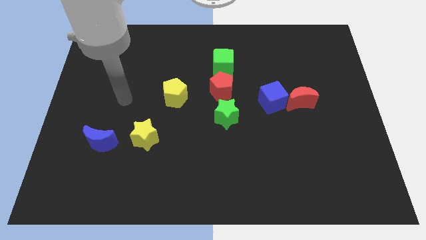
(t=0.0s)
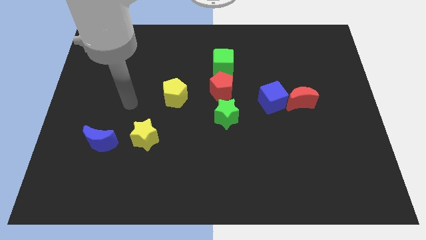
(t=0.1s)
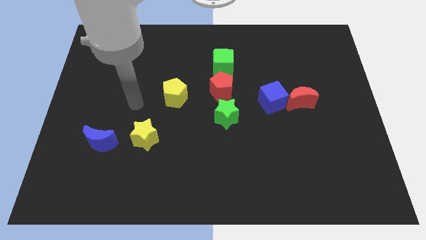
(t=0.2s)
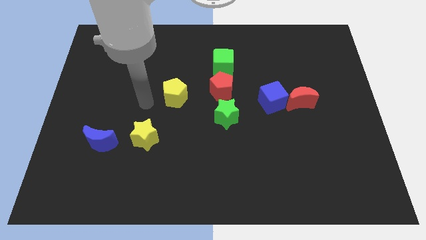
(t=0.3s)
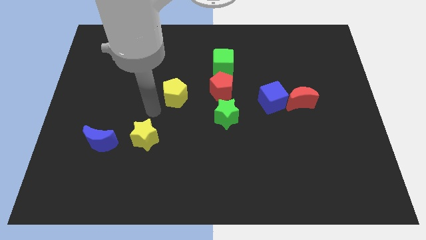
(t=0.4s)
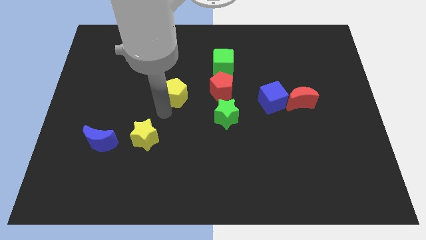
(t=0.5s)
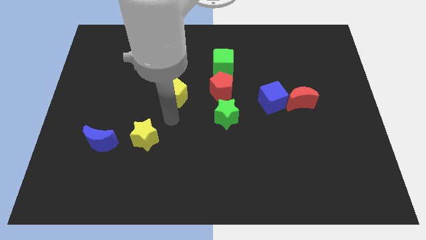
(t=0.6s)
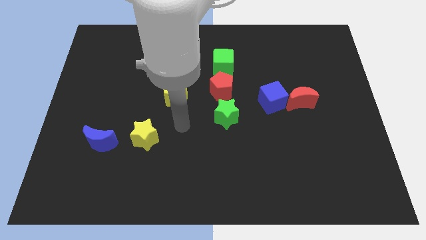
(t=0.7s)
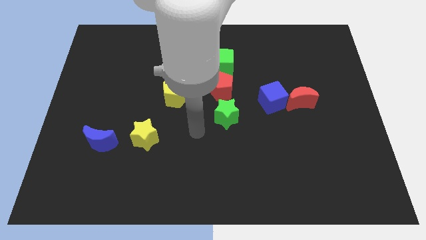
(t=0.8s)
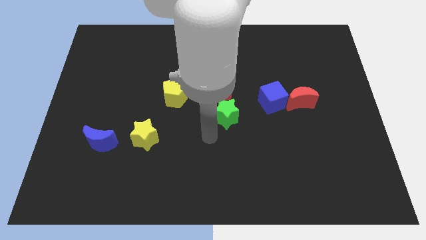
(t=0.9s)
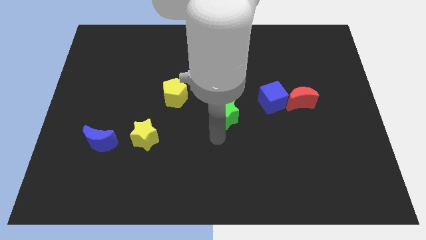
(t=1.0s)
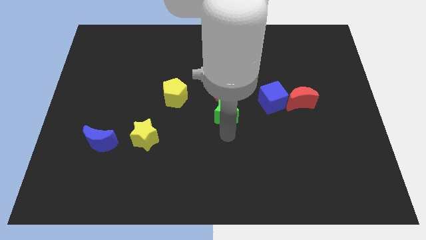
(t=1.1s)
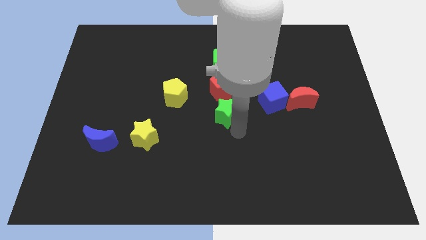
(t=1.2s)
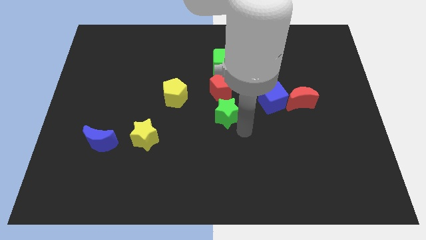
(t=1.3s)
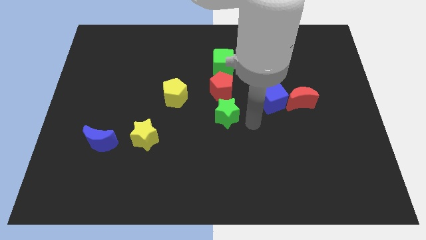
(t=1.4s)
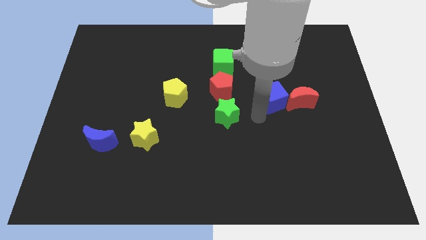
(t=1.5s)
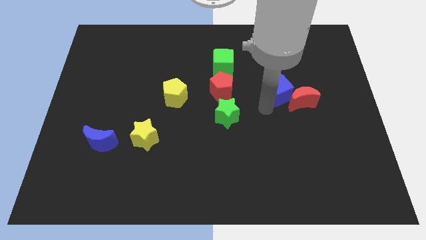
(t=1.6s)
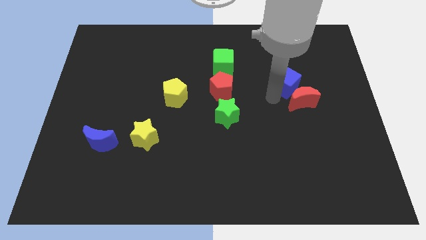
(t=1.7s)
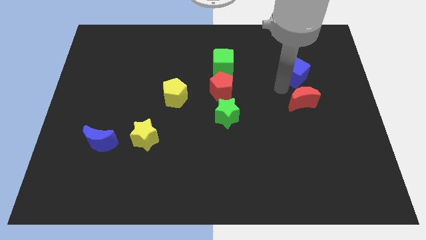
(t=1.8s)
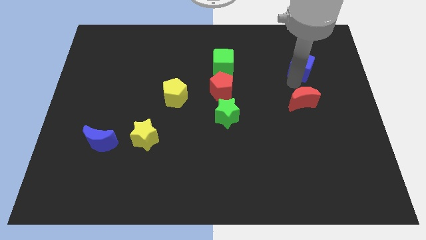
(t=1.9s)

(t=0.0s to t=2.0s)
pull the red moon apart from the blue cube

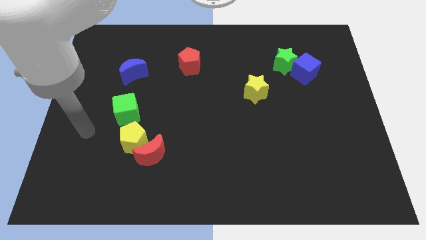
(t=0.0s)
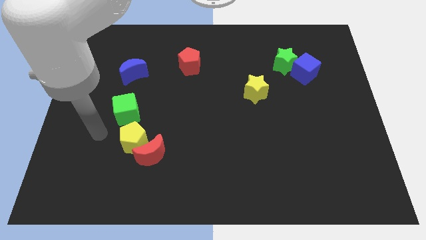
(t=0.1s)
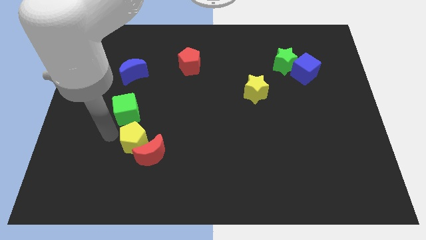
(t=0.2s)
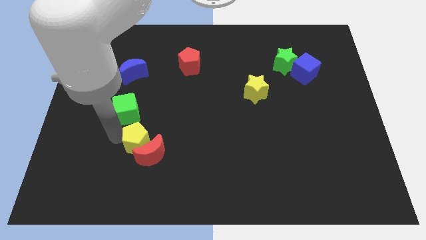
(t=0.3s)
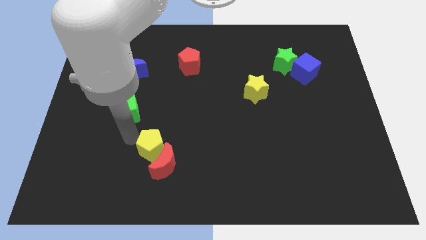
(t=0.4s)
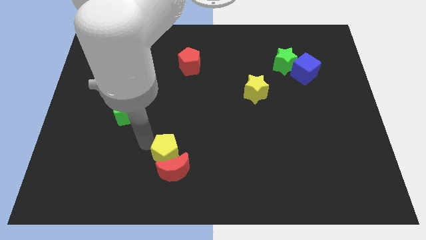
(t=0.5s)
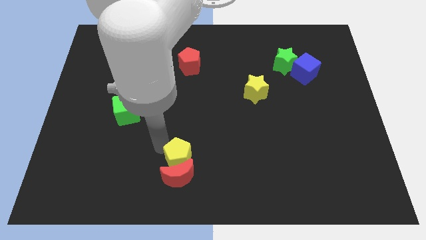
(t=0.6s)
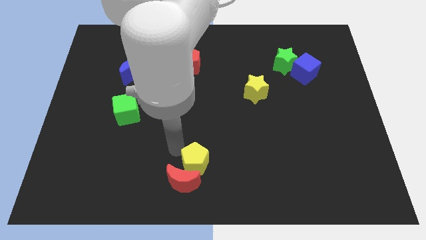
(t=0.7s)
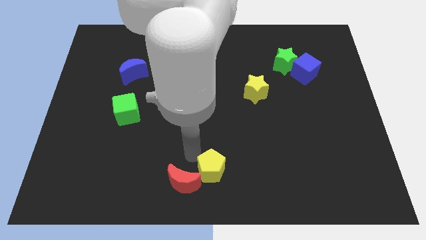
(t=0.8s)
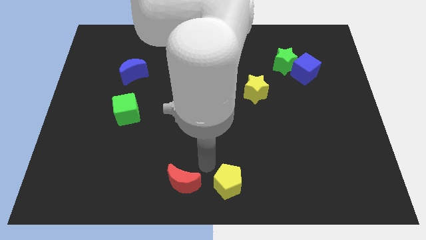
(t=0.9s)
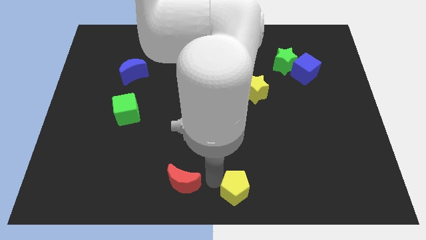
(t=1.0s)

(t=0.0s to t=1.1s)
pull the red moon apart from the yellow pentagon

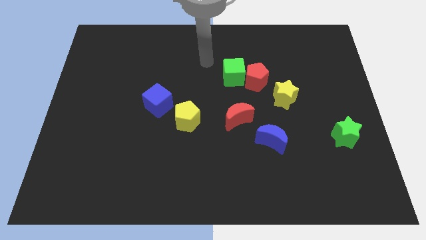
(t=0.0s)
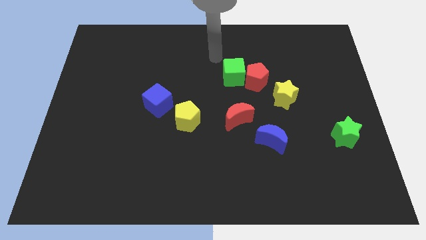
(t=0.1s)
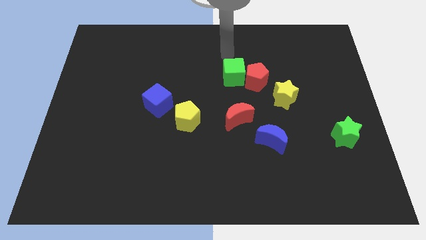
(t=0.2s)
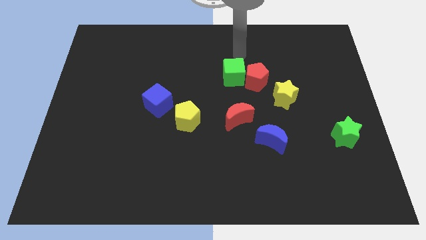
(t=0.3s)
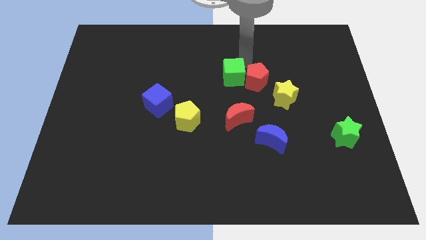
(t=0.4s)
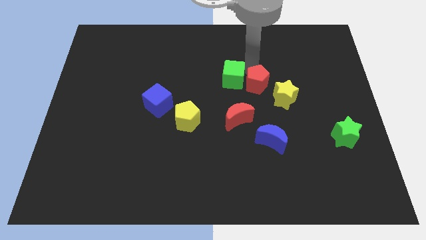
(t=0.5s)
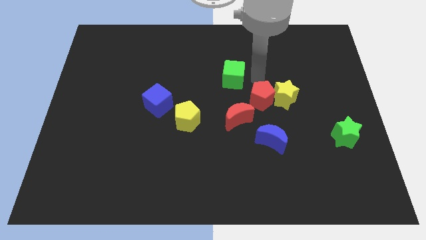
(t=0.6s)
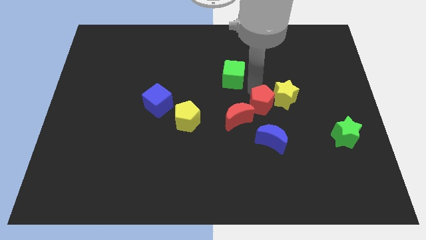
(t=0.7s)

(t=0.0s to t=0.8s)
separate the green cube from the red pentagon

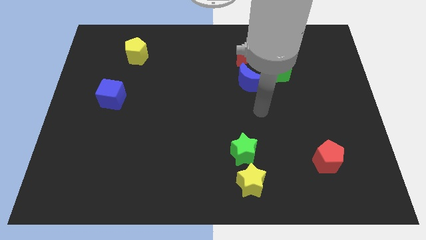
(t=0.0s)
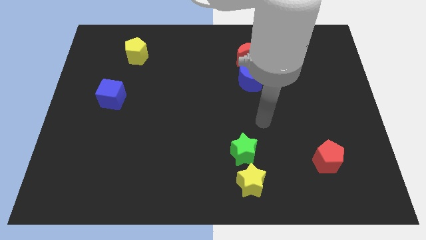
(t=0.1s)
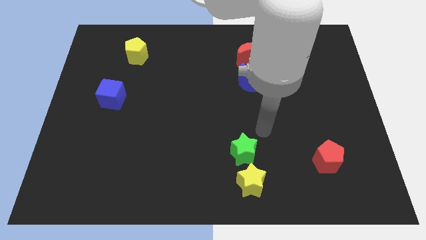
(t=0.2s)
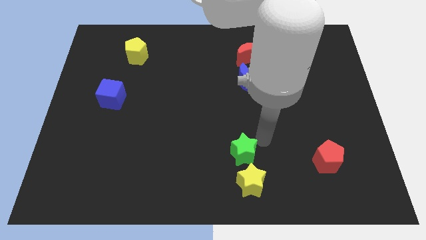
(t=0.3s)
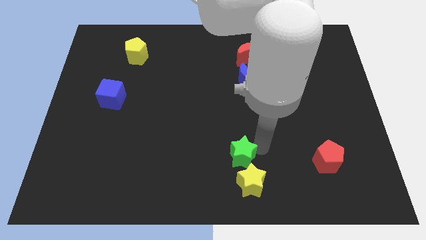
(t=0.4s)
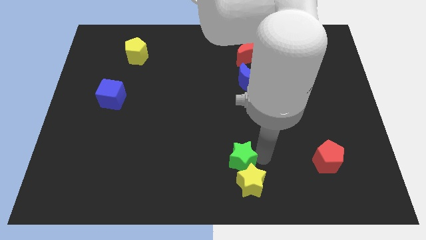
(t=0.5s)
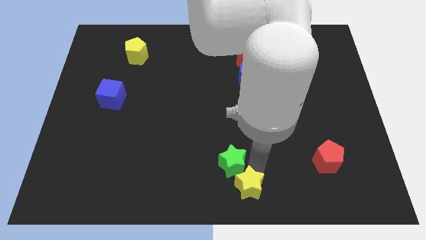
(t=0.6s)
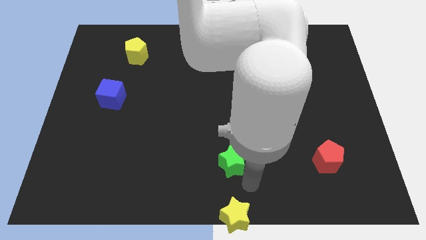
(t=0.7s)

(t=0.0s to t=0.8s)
separate the green star from the yellow star

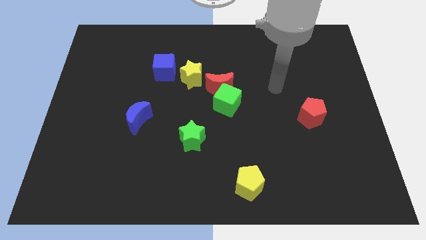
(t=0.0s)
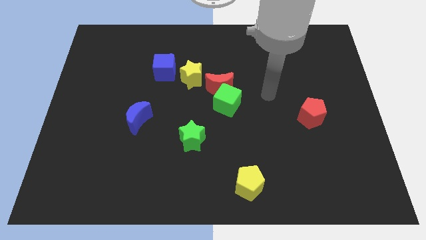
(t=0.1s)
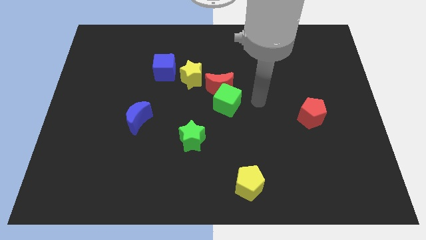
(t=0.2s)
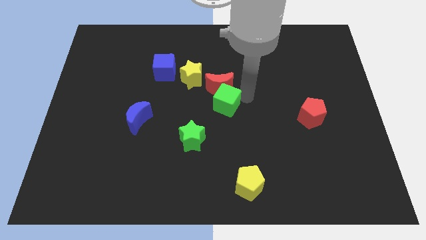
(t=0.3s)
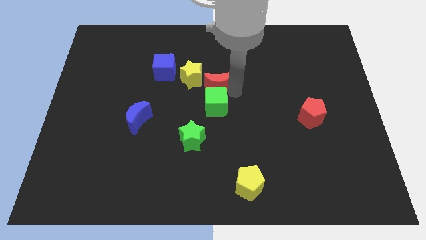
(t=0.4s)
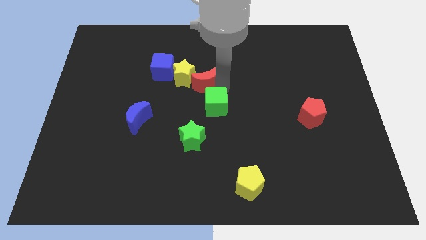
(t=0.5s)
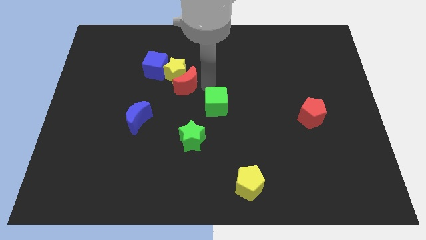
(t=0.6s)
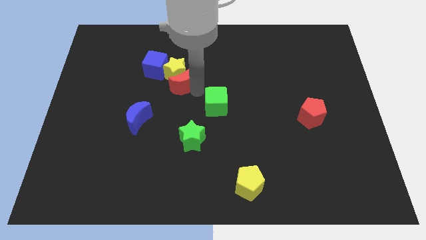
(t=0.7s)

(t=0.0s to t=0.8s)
move the green cube away from the red moon

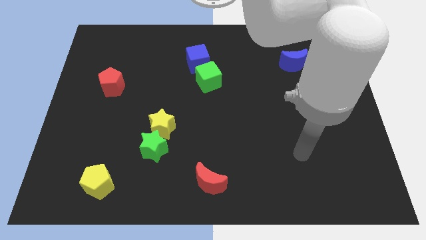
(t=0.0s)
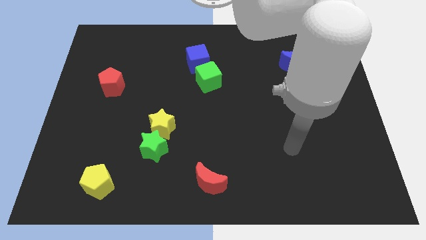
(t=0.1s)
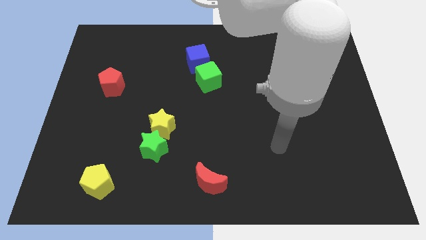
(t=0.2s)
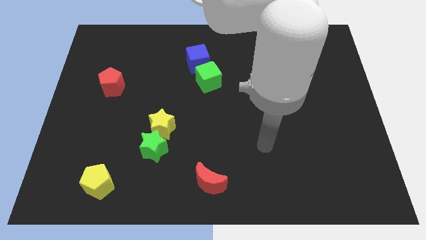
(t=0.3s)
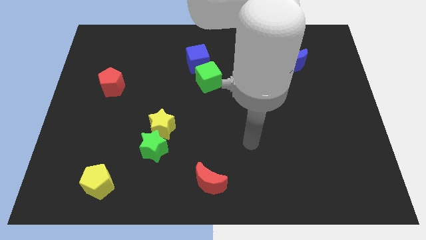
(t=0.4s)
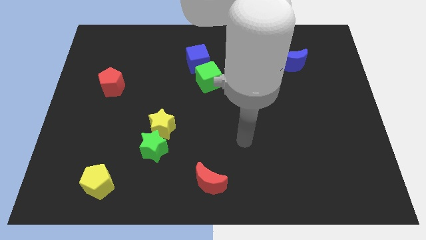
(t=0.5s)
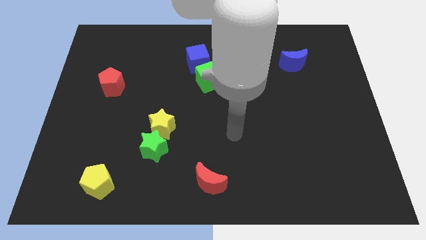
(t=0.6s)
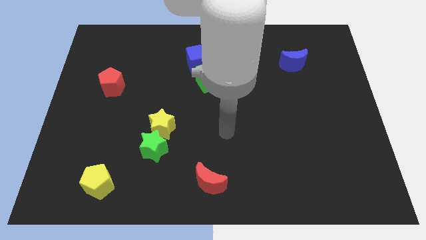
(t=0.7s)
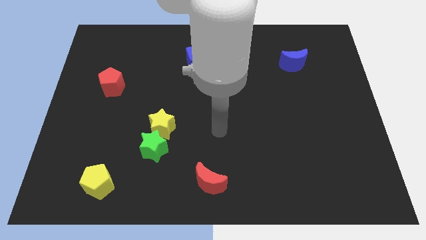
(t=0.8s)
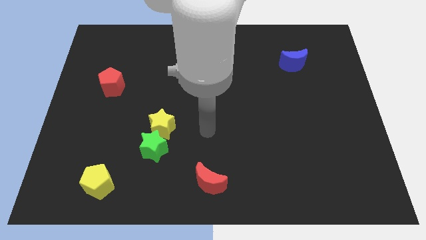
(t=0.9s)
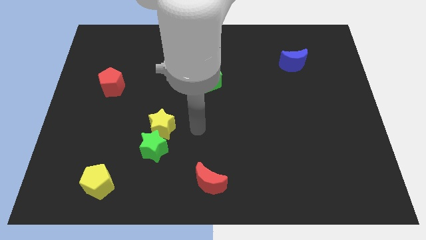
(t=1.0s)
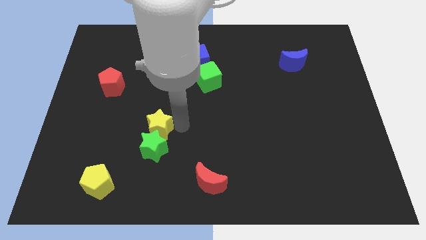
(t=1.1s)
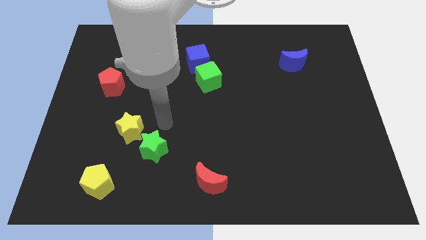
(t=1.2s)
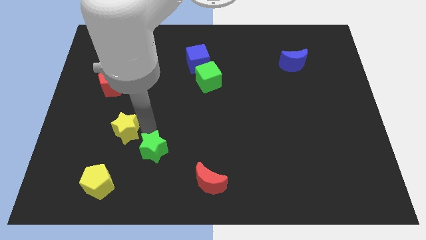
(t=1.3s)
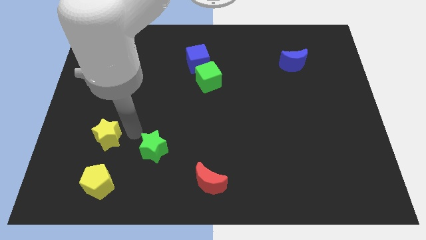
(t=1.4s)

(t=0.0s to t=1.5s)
move the green star away from the yellow star

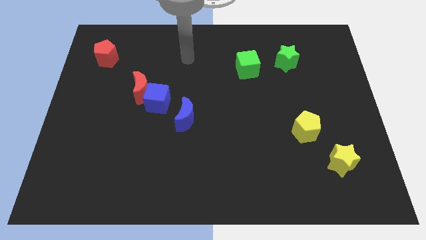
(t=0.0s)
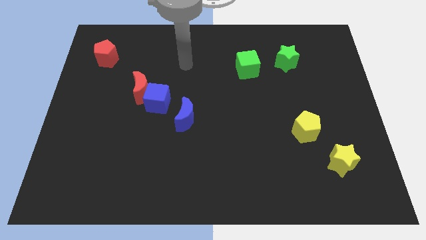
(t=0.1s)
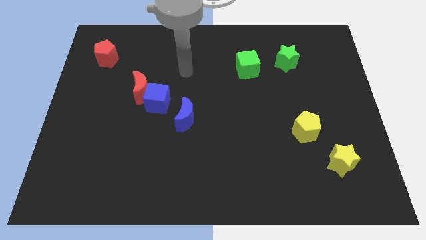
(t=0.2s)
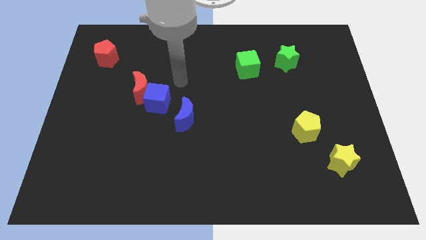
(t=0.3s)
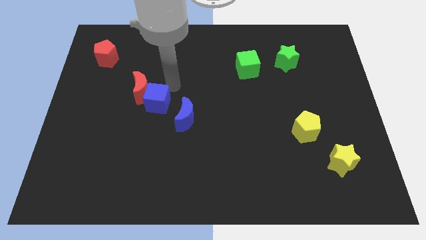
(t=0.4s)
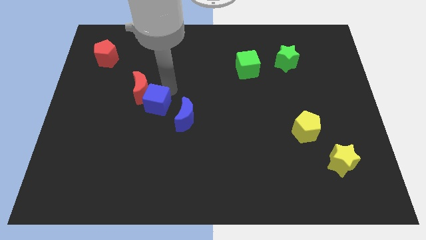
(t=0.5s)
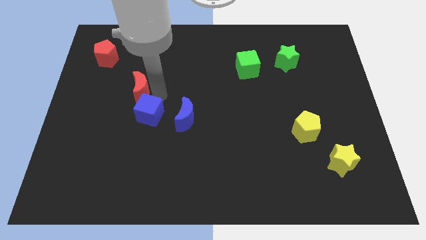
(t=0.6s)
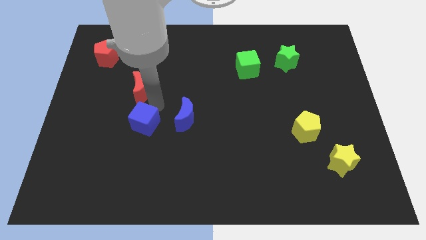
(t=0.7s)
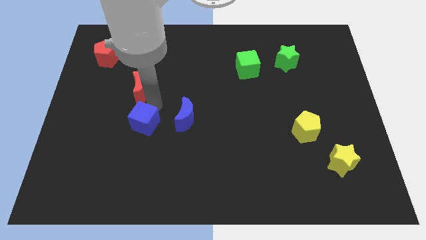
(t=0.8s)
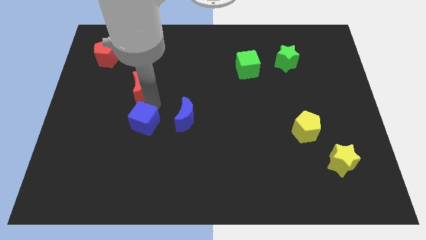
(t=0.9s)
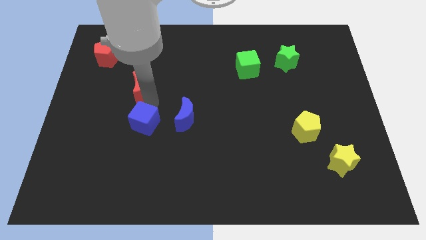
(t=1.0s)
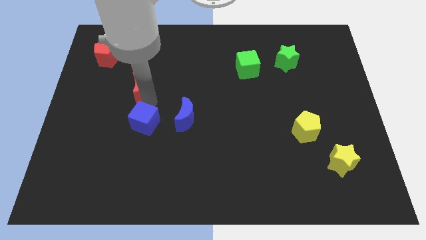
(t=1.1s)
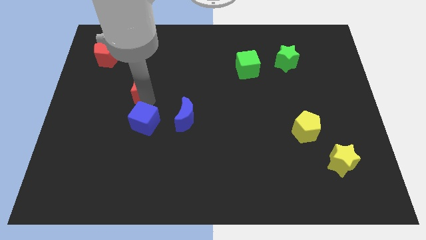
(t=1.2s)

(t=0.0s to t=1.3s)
separate the red moon from the blue cube

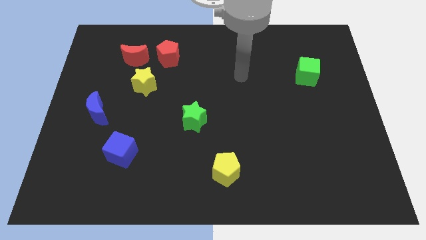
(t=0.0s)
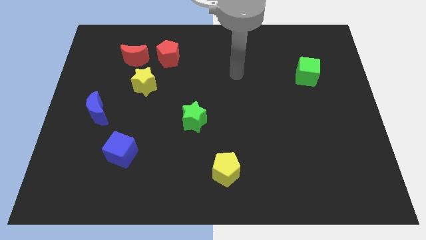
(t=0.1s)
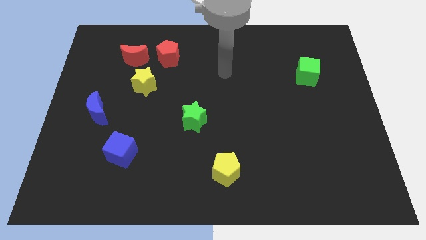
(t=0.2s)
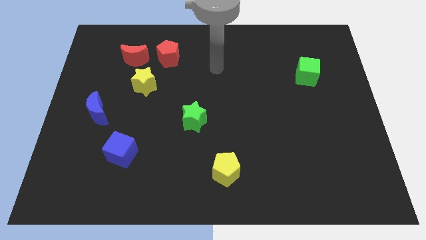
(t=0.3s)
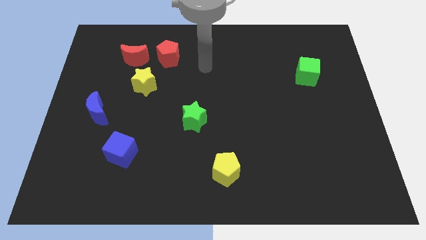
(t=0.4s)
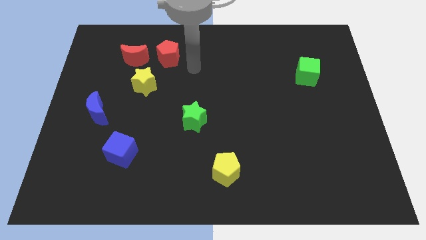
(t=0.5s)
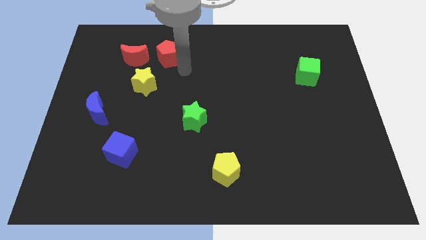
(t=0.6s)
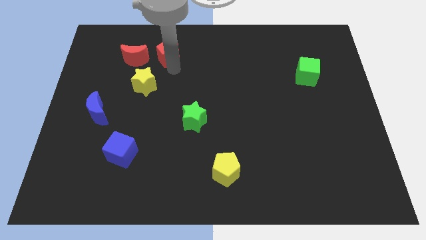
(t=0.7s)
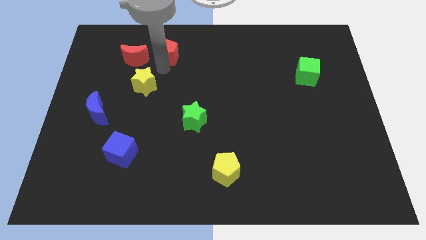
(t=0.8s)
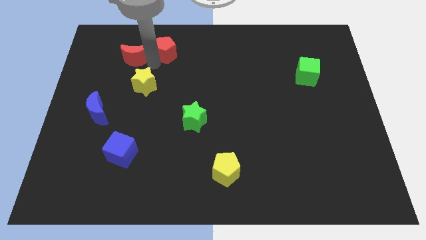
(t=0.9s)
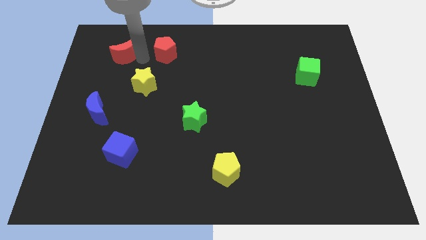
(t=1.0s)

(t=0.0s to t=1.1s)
move the red pentagon away from the red moon

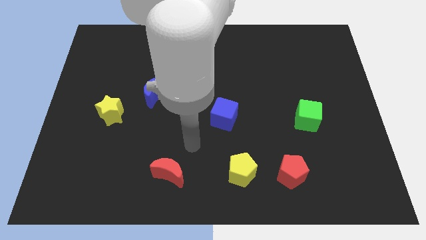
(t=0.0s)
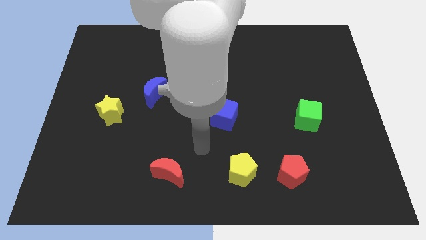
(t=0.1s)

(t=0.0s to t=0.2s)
separate the red pentagon from the yellow pentagon
